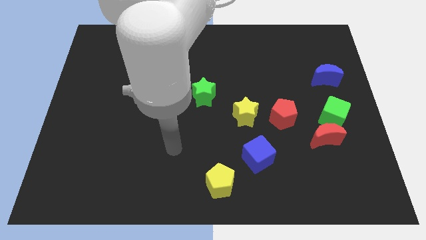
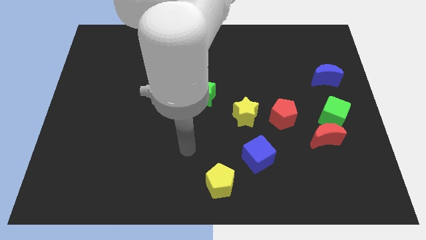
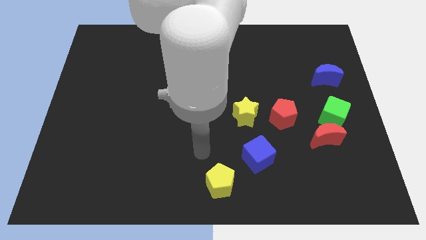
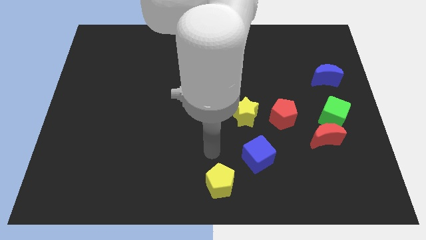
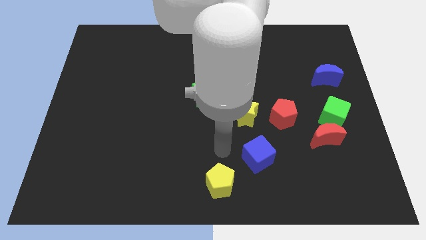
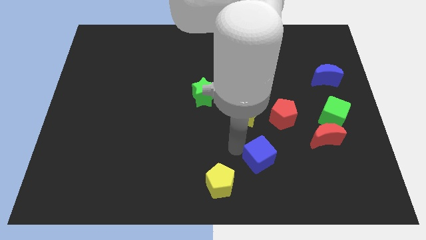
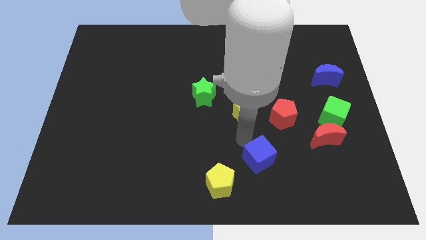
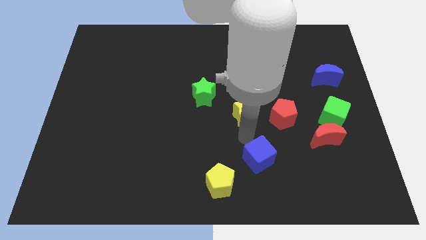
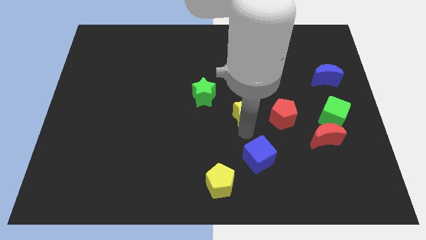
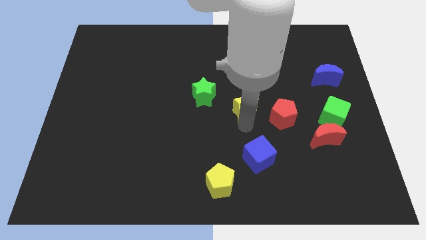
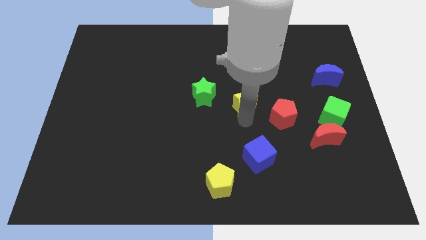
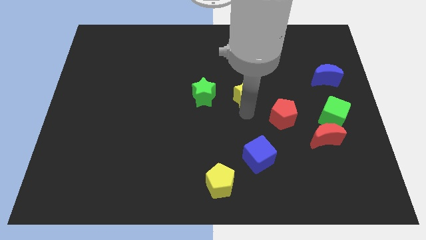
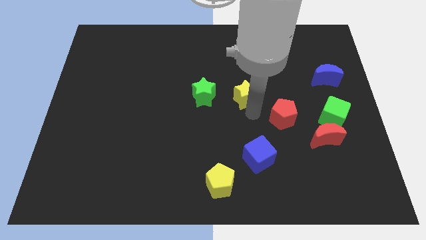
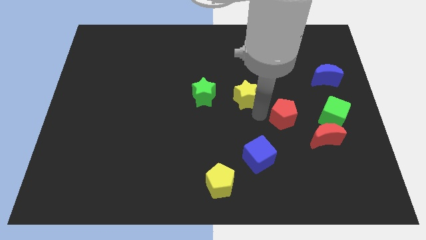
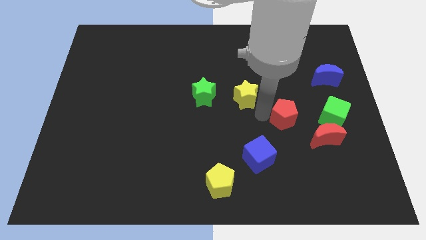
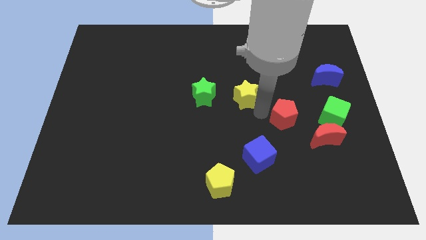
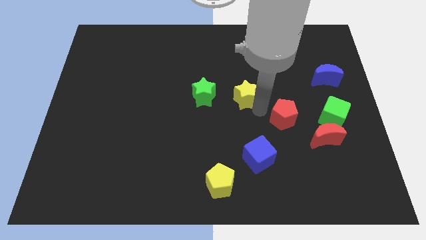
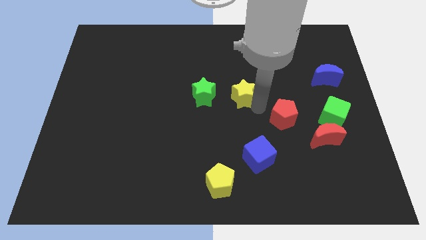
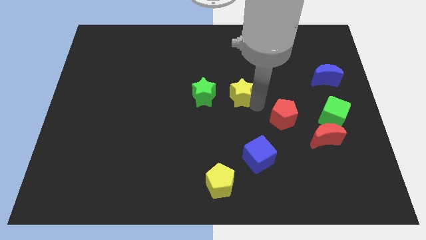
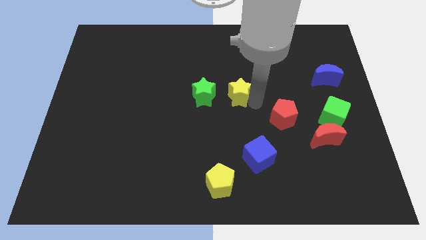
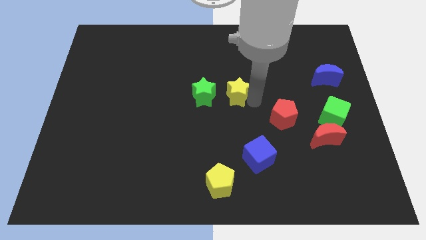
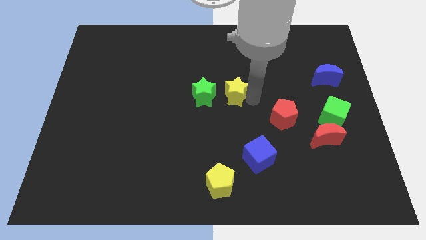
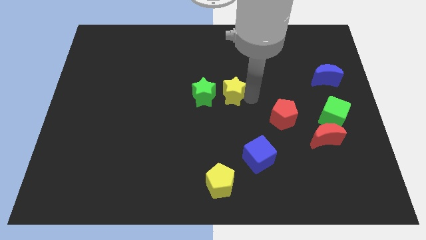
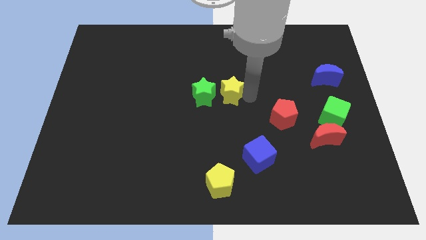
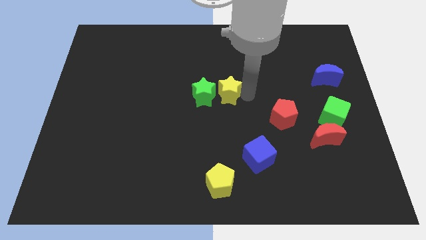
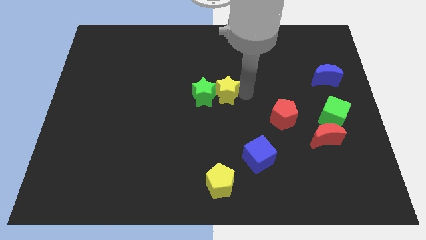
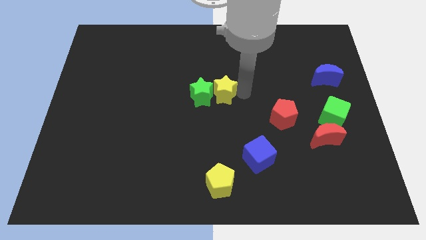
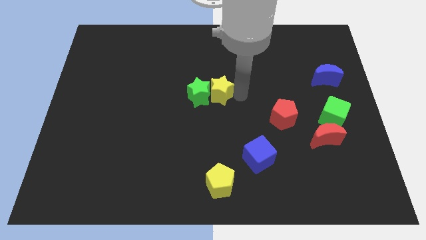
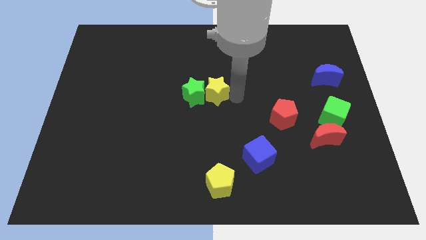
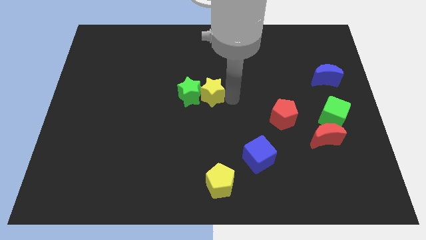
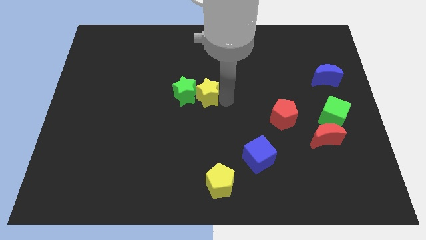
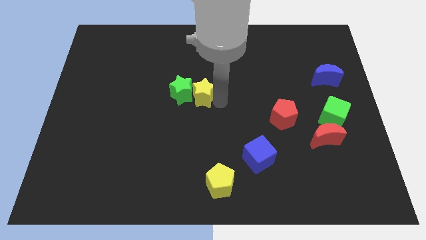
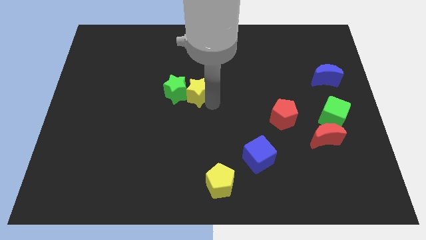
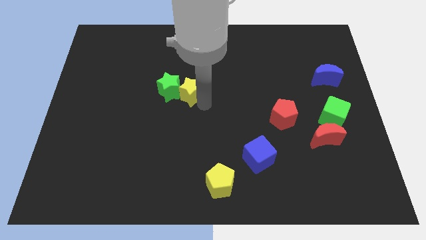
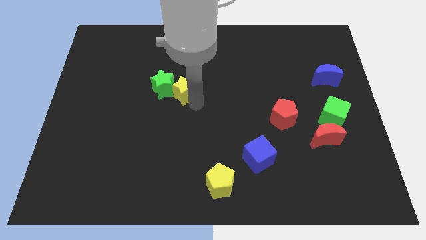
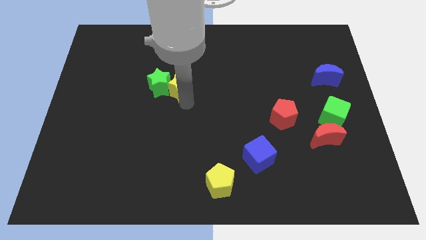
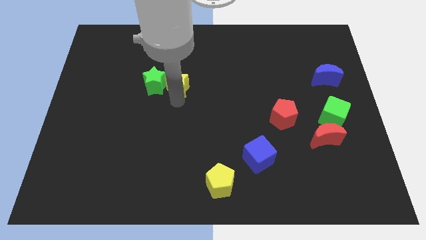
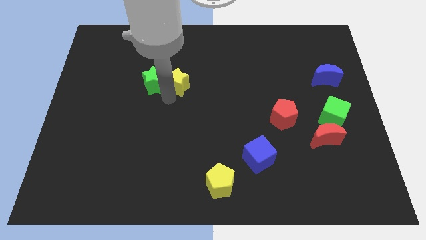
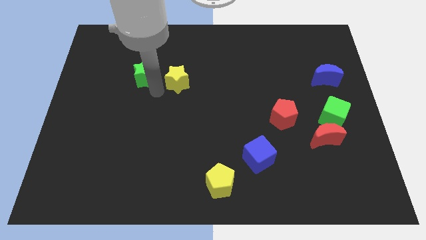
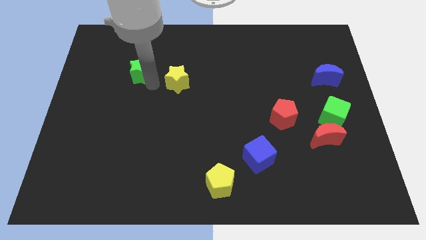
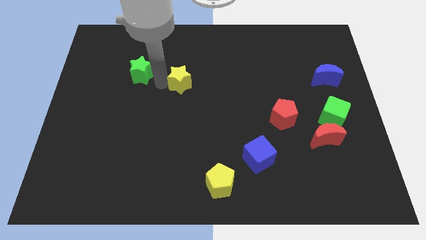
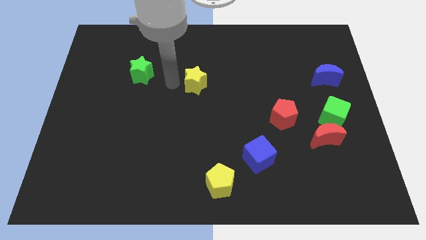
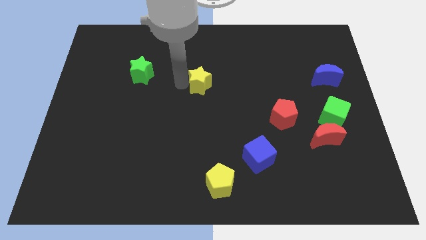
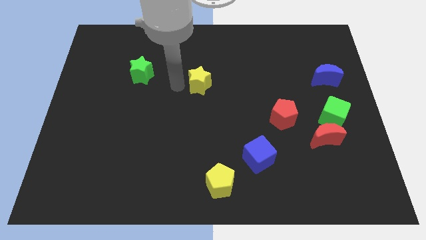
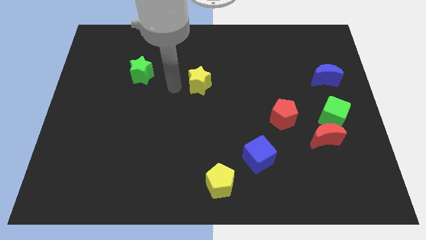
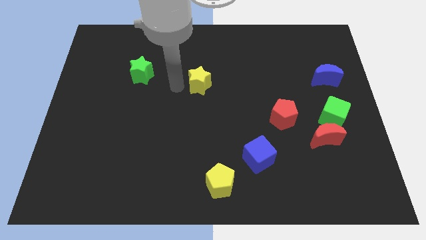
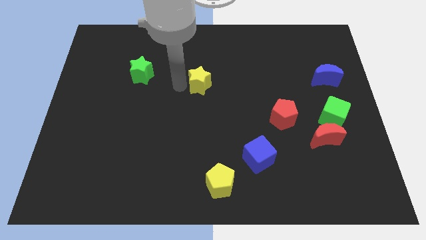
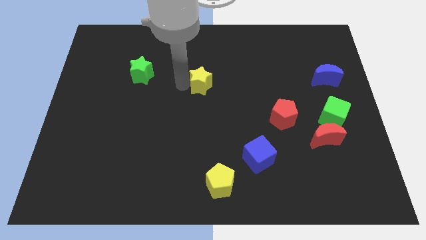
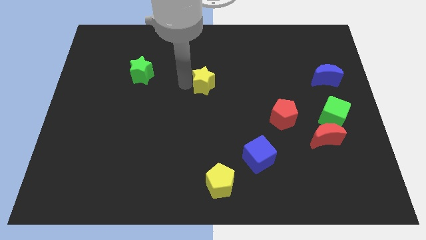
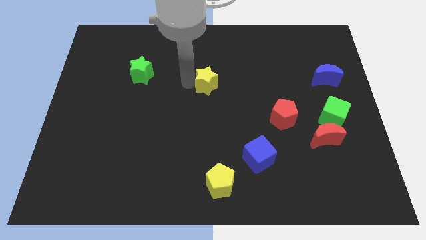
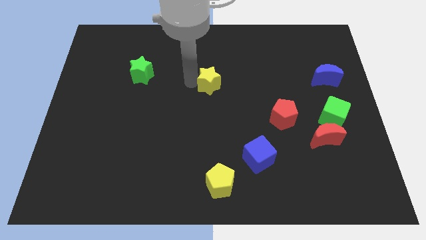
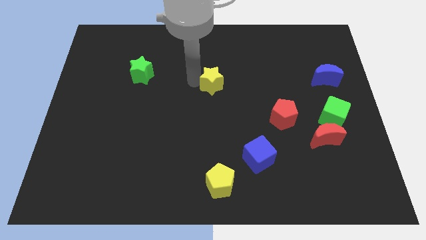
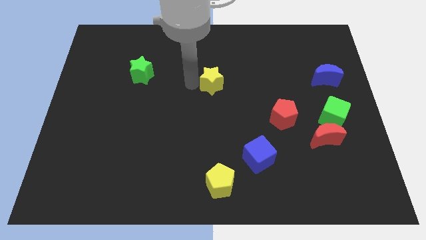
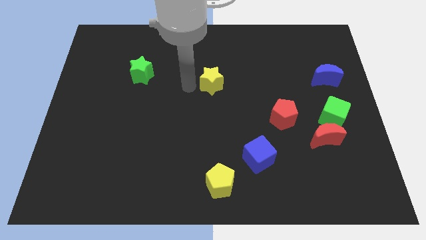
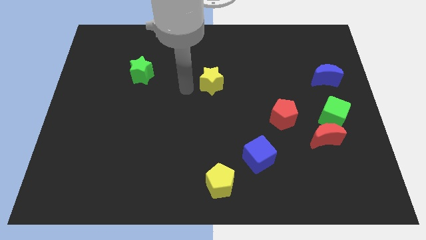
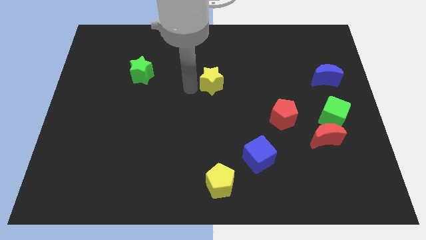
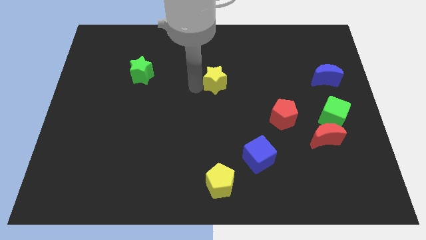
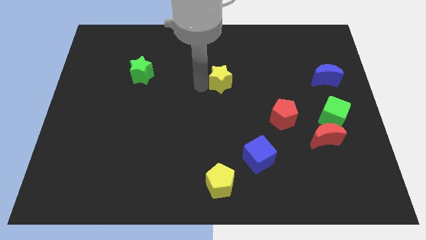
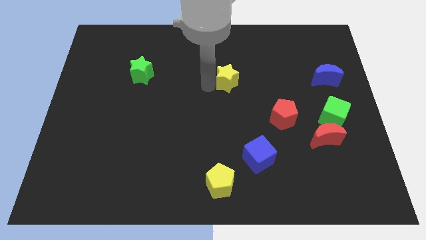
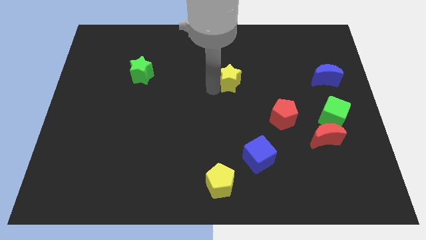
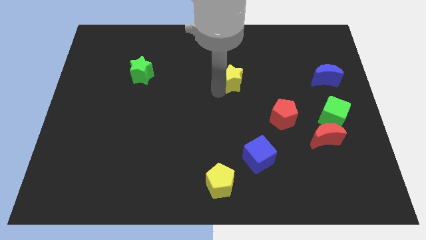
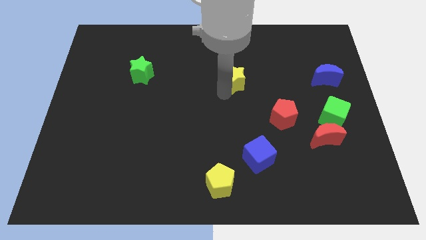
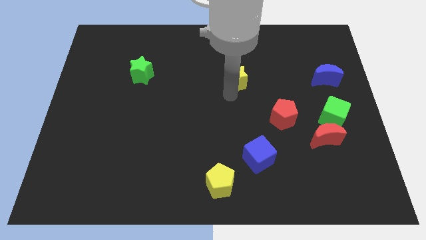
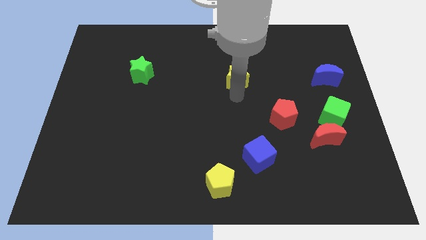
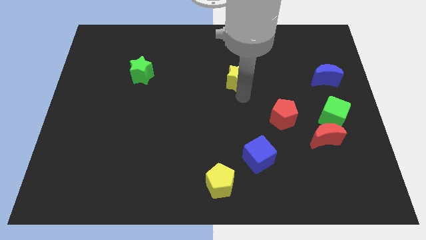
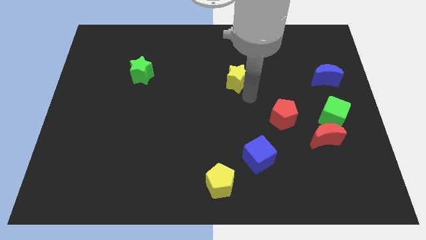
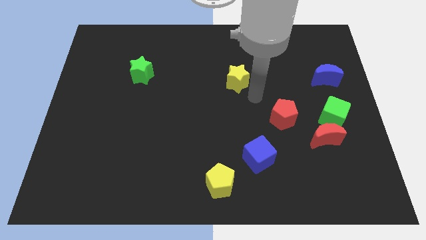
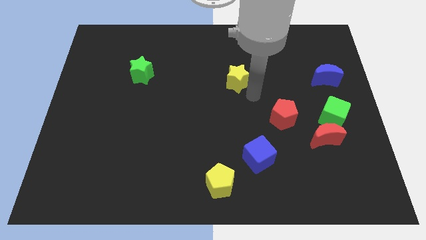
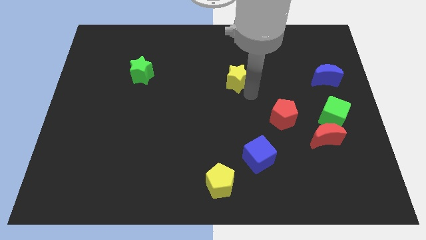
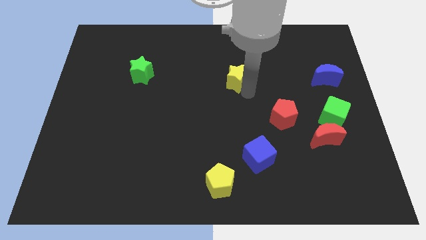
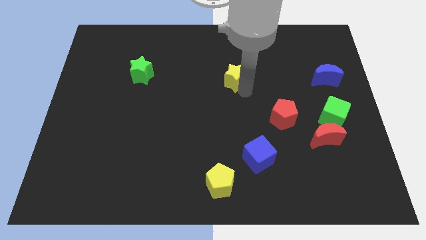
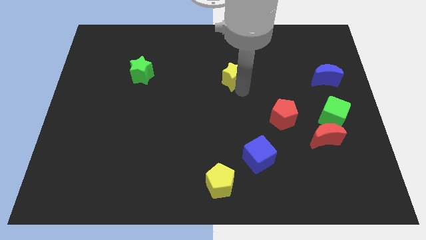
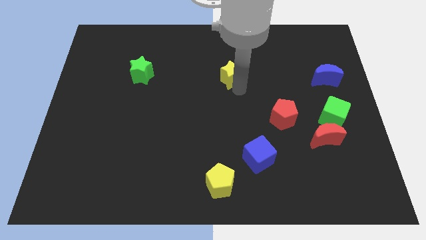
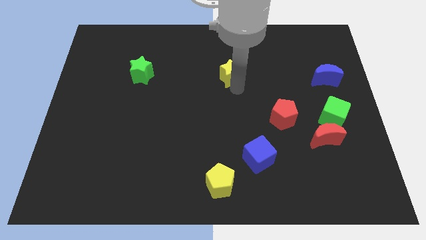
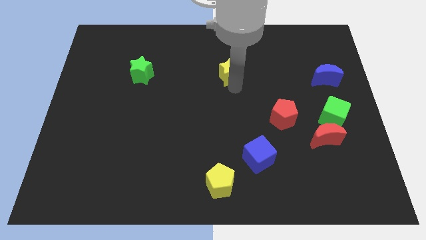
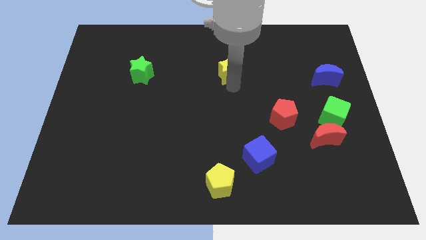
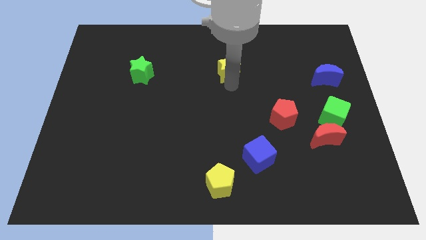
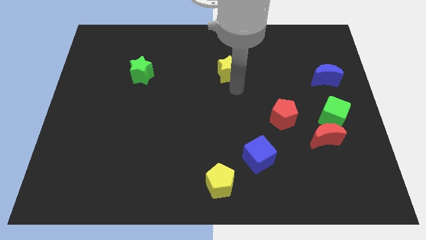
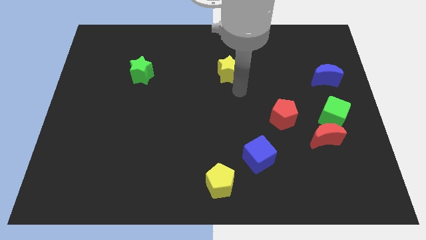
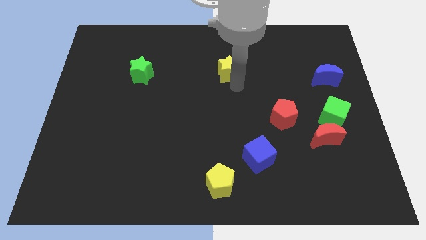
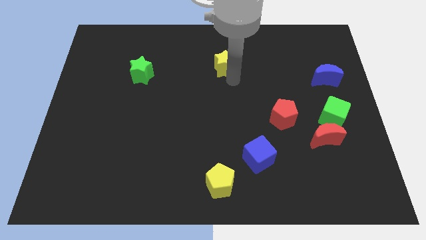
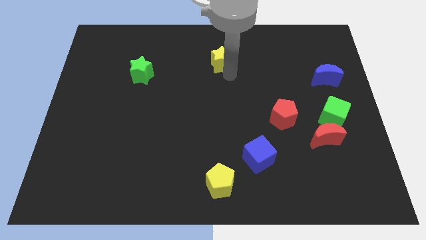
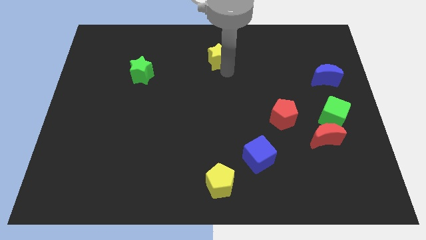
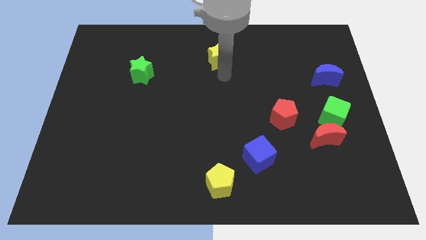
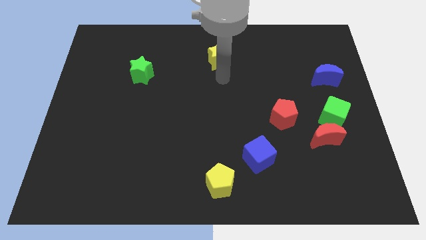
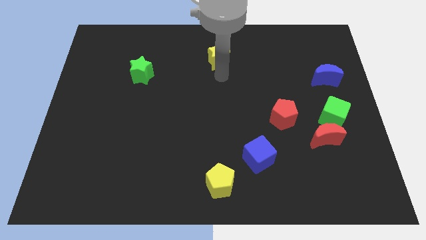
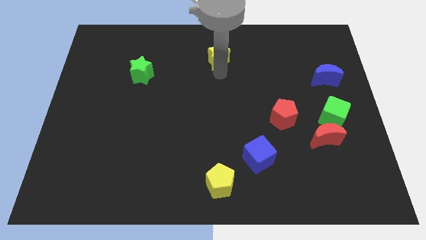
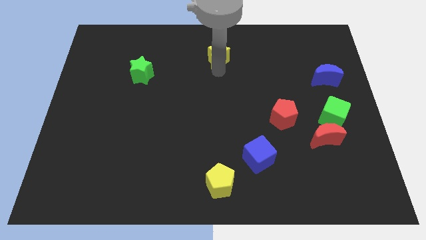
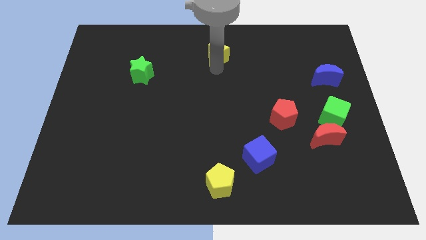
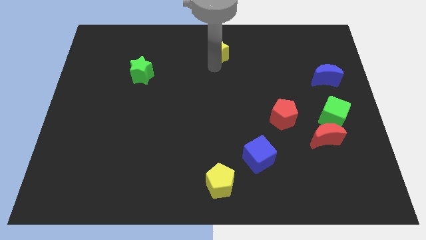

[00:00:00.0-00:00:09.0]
put the yellow star to the top side
